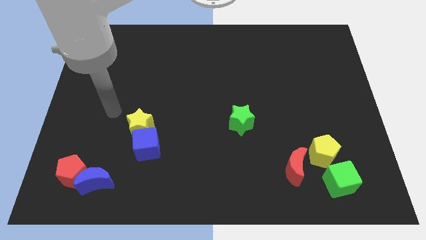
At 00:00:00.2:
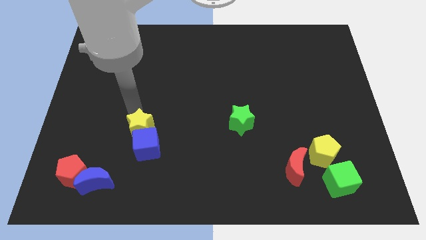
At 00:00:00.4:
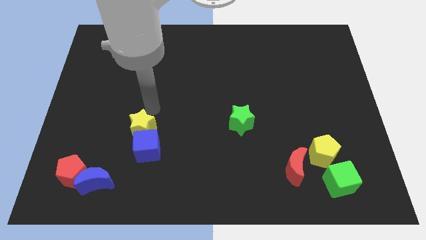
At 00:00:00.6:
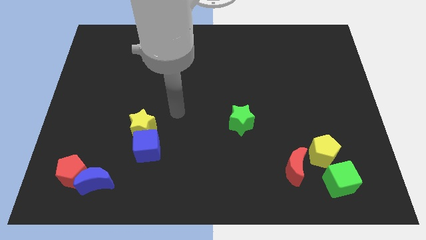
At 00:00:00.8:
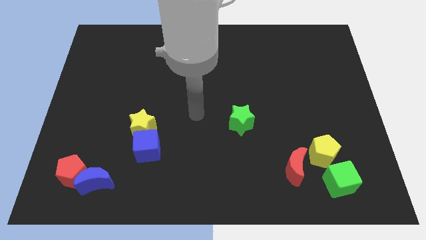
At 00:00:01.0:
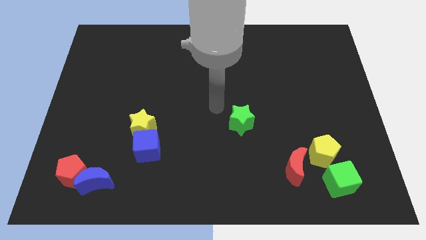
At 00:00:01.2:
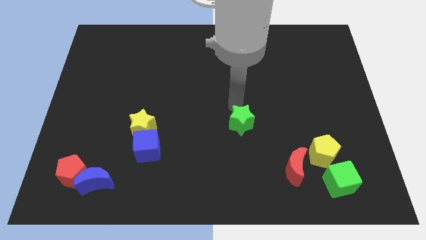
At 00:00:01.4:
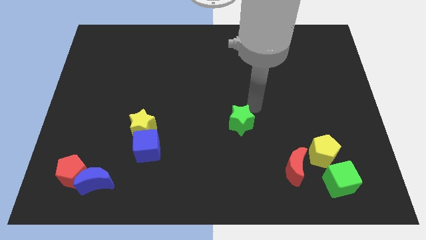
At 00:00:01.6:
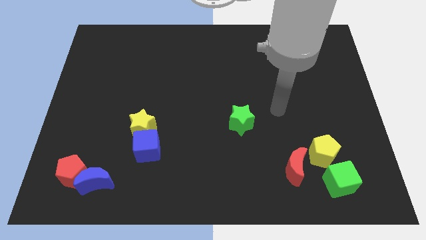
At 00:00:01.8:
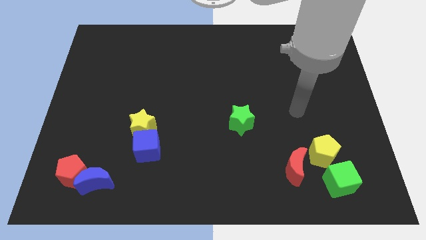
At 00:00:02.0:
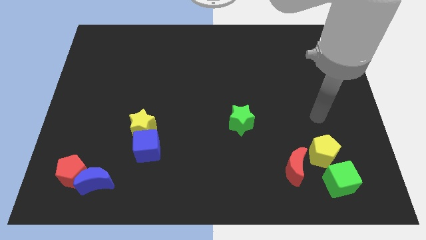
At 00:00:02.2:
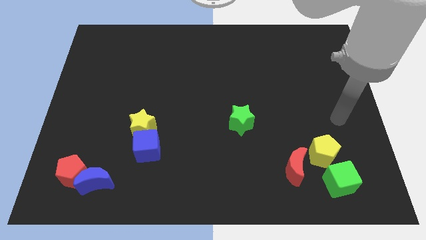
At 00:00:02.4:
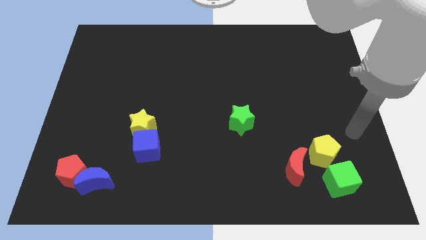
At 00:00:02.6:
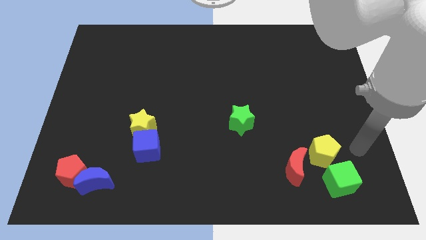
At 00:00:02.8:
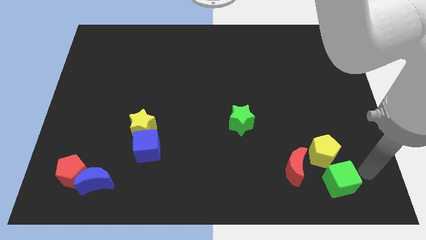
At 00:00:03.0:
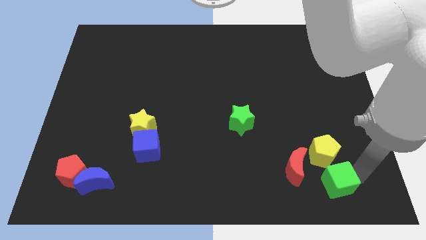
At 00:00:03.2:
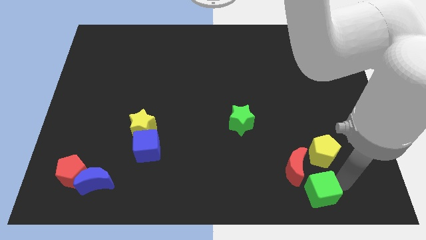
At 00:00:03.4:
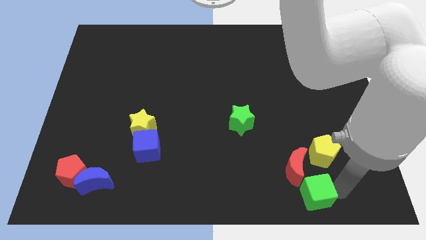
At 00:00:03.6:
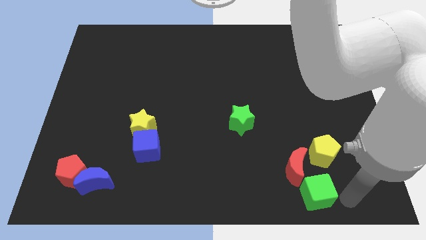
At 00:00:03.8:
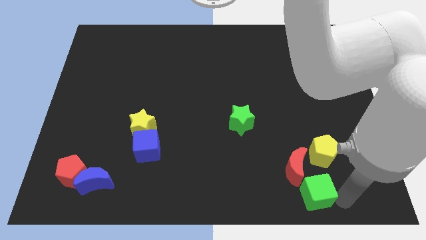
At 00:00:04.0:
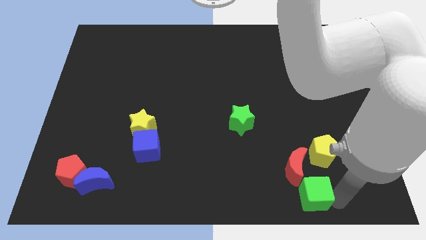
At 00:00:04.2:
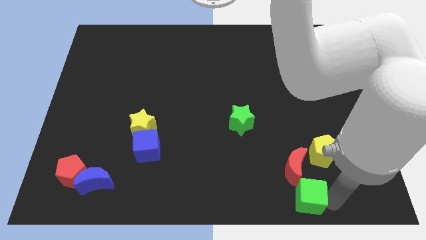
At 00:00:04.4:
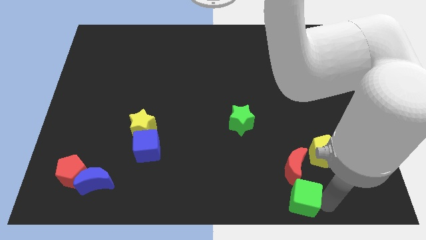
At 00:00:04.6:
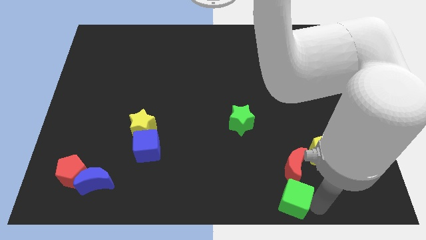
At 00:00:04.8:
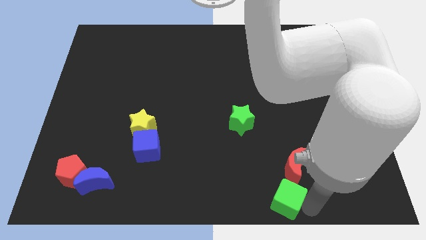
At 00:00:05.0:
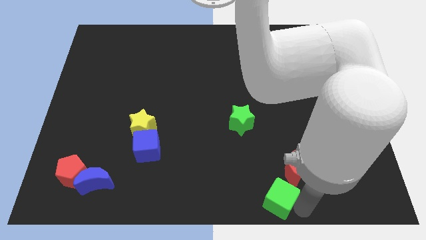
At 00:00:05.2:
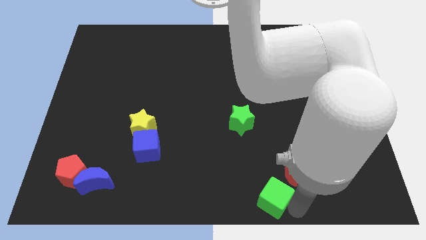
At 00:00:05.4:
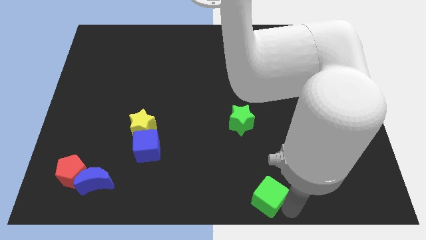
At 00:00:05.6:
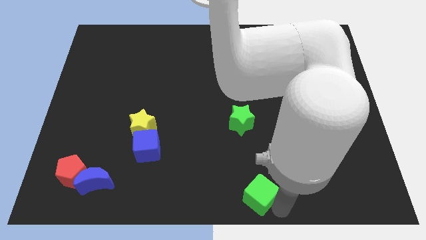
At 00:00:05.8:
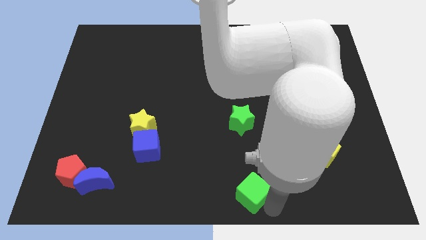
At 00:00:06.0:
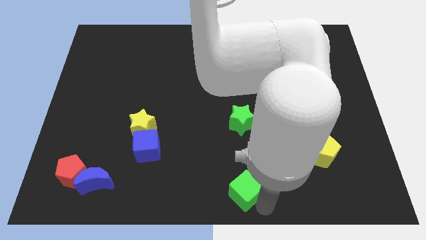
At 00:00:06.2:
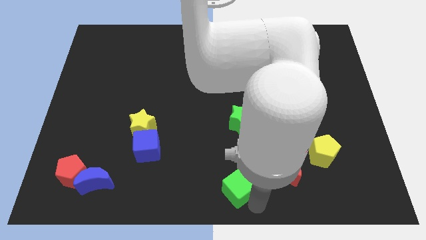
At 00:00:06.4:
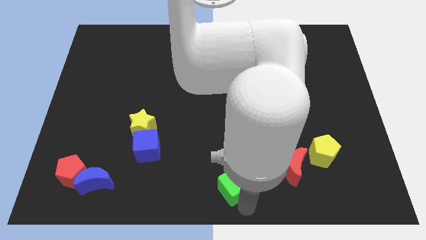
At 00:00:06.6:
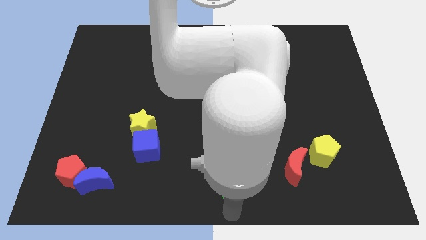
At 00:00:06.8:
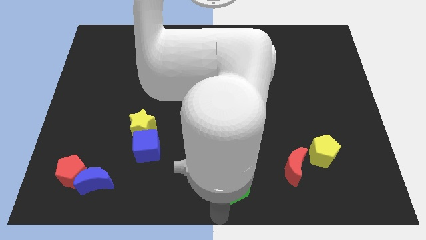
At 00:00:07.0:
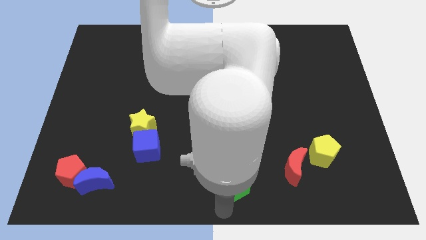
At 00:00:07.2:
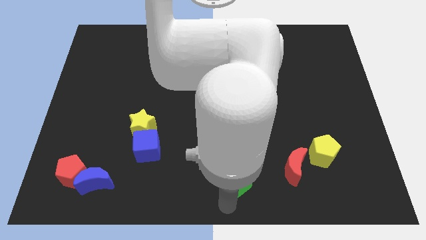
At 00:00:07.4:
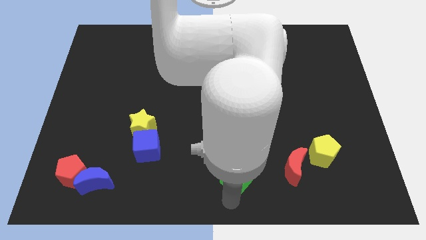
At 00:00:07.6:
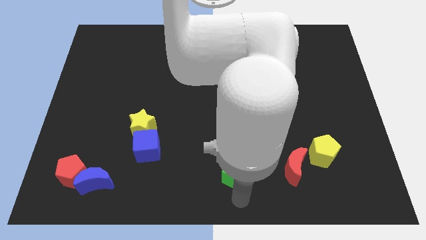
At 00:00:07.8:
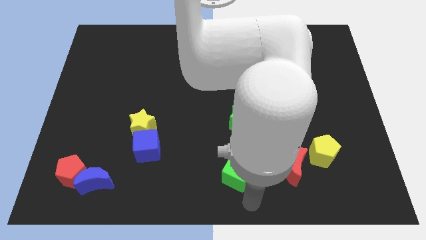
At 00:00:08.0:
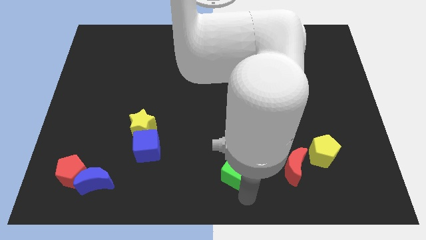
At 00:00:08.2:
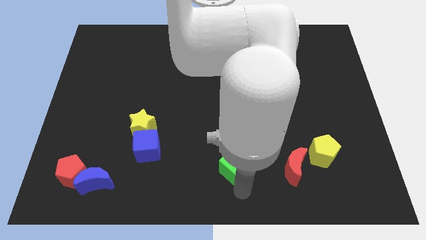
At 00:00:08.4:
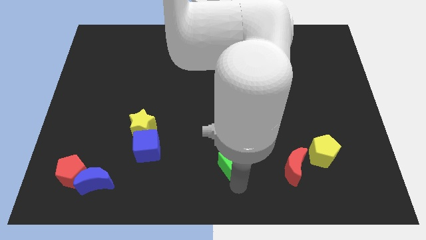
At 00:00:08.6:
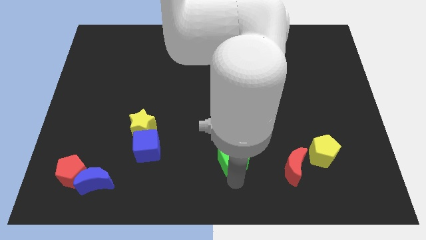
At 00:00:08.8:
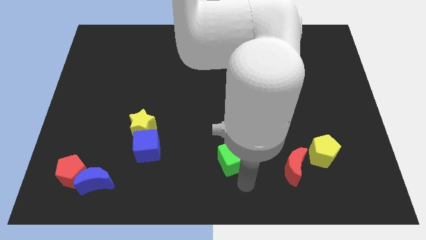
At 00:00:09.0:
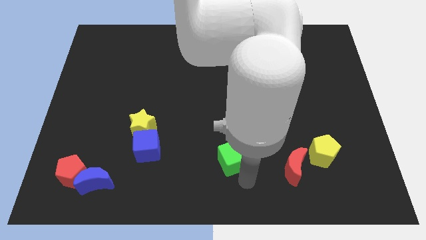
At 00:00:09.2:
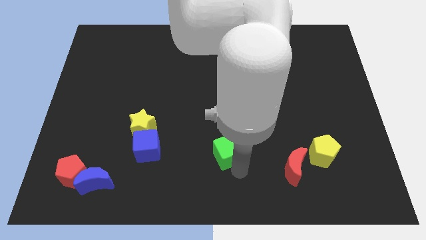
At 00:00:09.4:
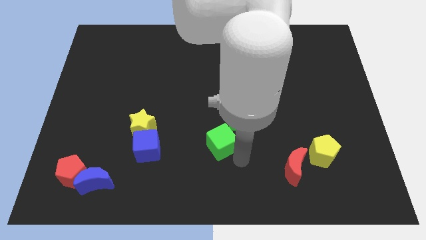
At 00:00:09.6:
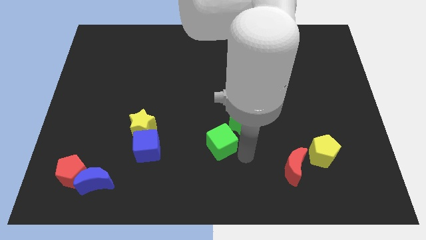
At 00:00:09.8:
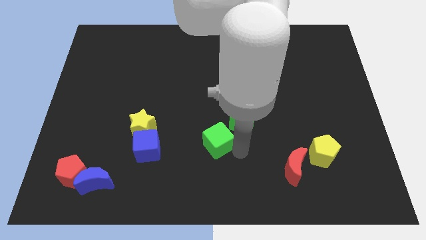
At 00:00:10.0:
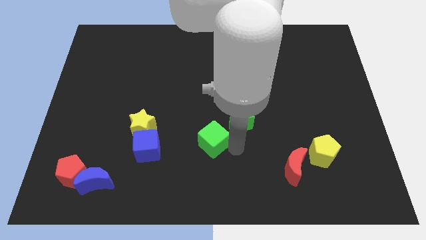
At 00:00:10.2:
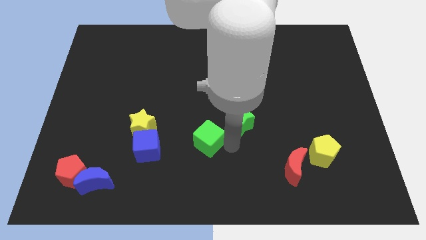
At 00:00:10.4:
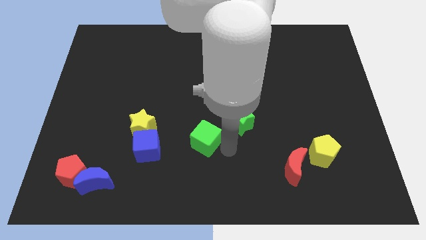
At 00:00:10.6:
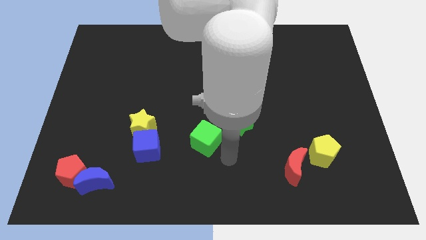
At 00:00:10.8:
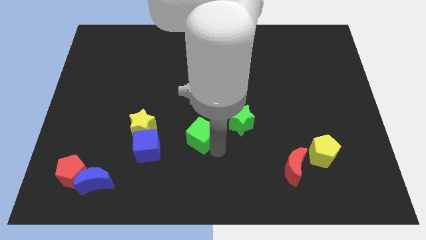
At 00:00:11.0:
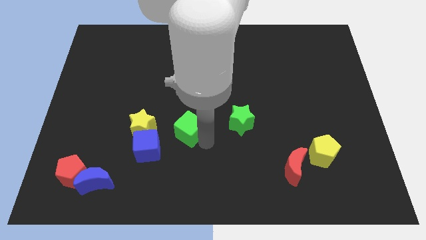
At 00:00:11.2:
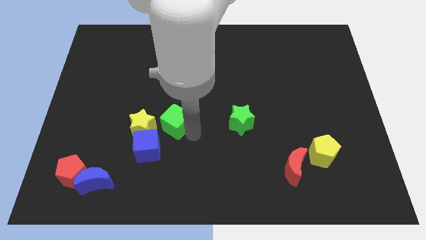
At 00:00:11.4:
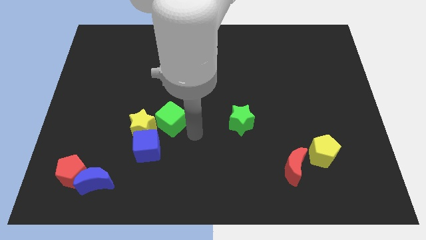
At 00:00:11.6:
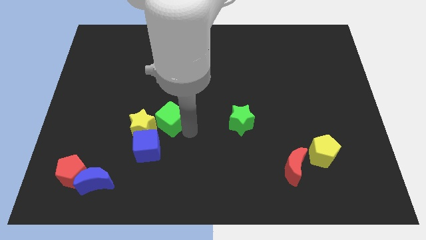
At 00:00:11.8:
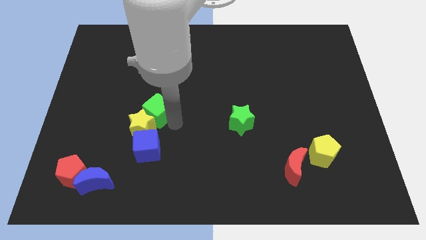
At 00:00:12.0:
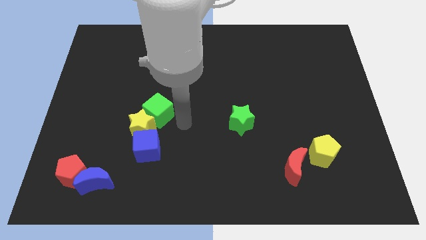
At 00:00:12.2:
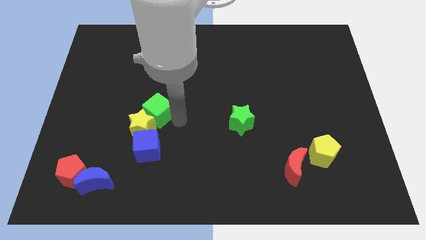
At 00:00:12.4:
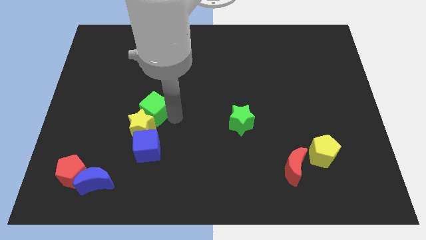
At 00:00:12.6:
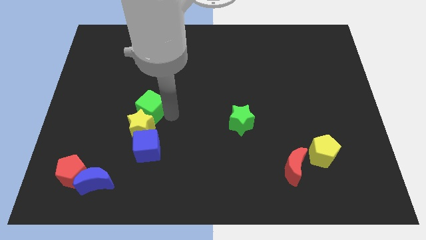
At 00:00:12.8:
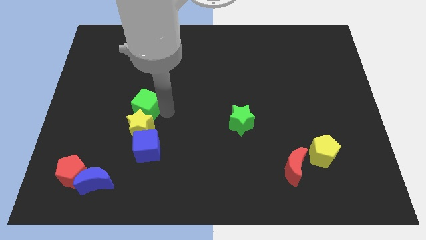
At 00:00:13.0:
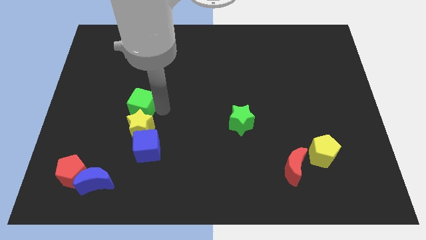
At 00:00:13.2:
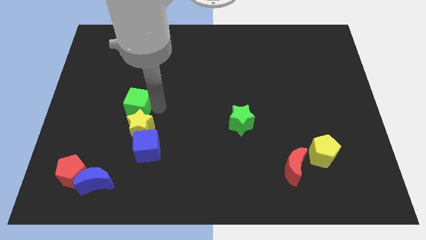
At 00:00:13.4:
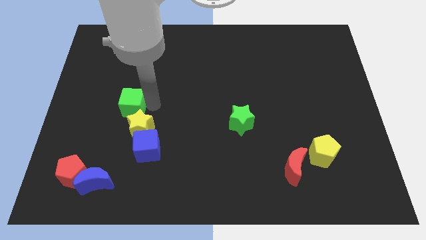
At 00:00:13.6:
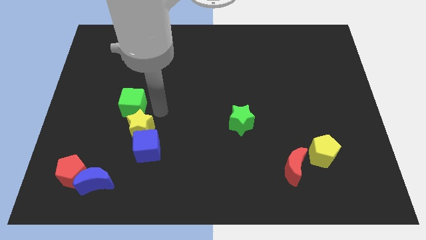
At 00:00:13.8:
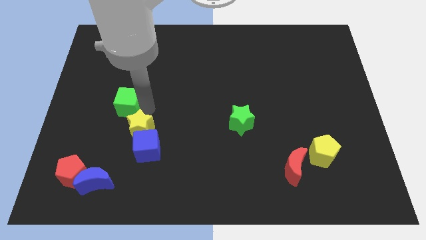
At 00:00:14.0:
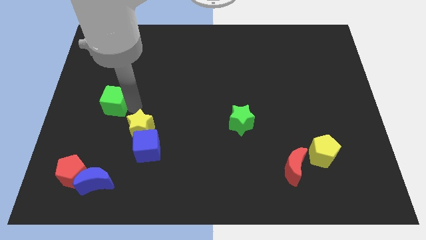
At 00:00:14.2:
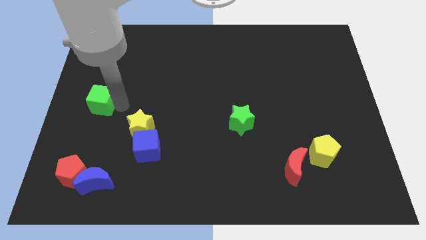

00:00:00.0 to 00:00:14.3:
push the green cube to the left side of the board

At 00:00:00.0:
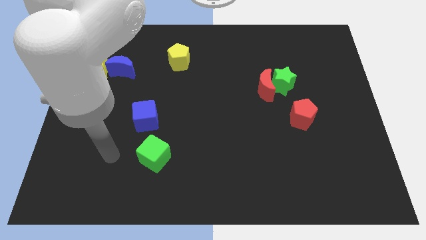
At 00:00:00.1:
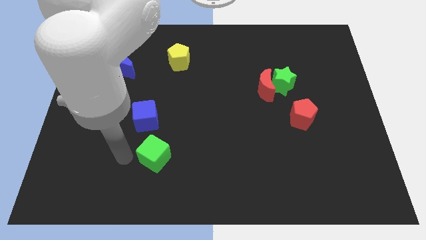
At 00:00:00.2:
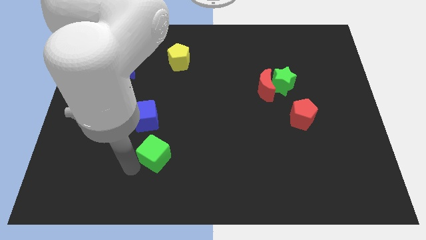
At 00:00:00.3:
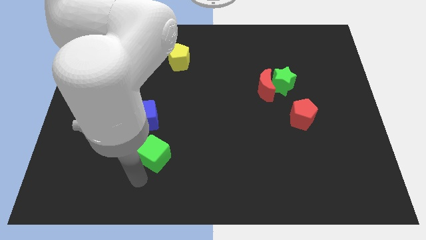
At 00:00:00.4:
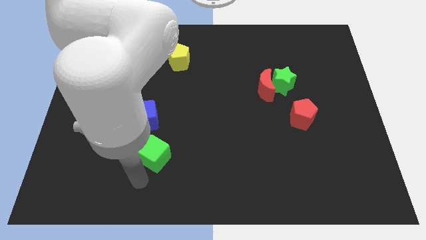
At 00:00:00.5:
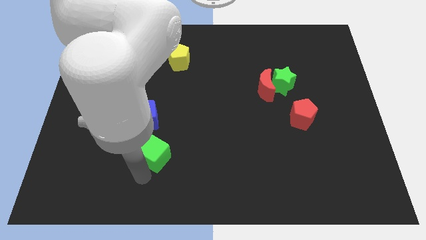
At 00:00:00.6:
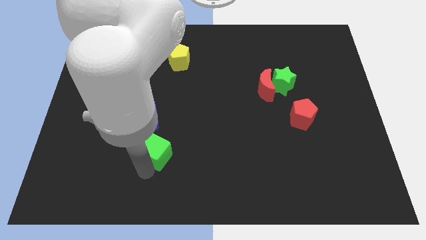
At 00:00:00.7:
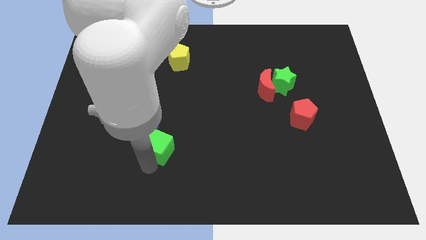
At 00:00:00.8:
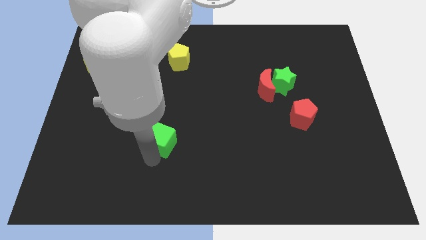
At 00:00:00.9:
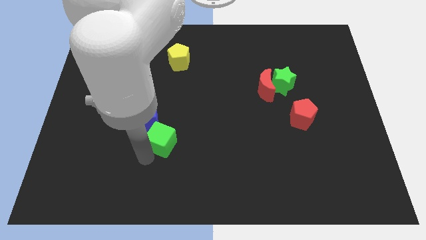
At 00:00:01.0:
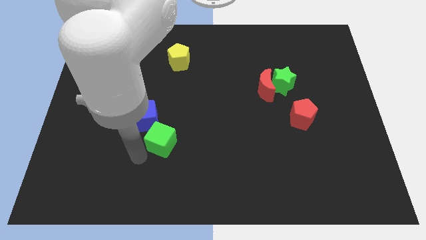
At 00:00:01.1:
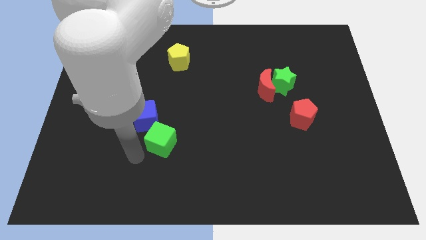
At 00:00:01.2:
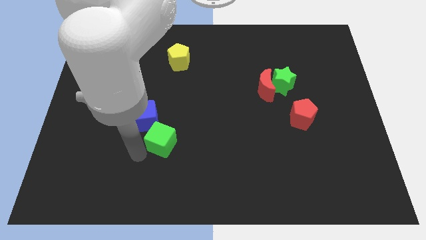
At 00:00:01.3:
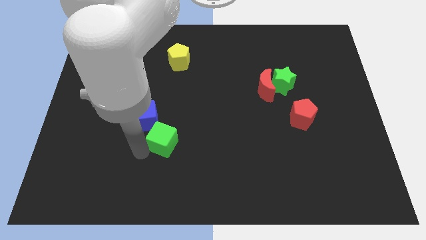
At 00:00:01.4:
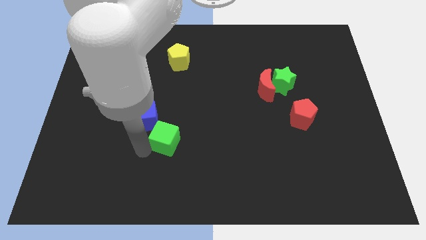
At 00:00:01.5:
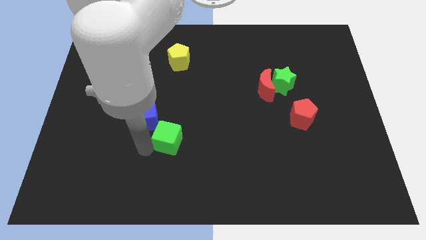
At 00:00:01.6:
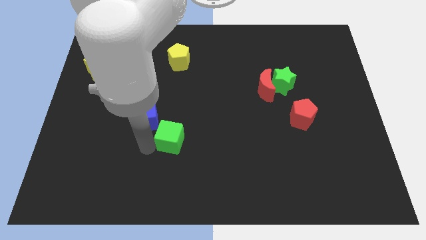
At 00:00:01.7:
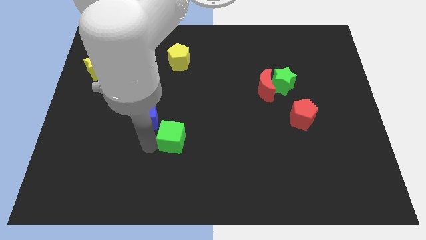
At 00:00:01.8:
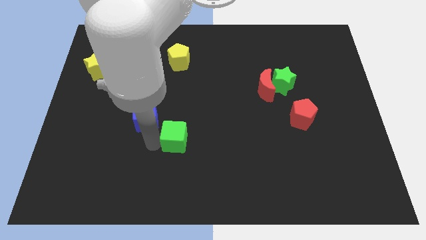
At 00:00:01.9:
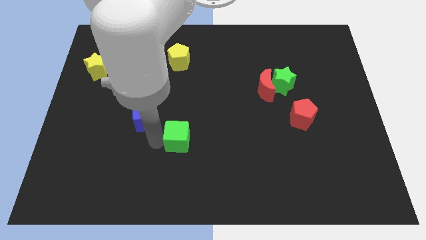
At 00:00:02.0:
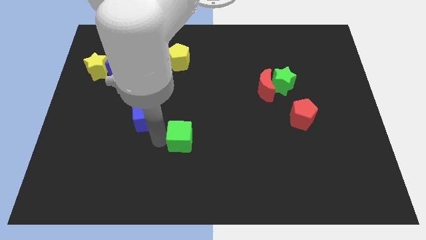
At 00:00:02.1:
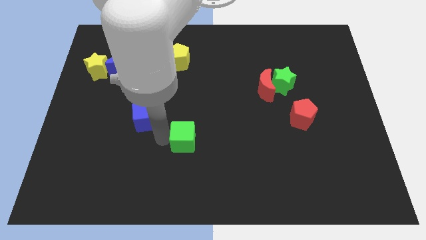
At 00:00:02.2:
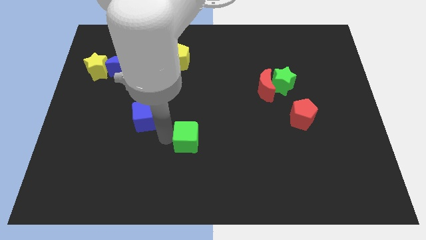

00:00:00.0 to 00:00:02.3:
push the green cube to the center
